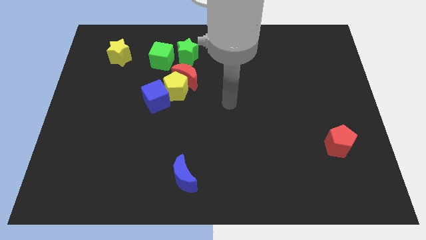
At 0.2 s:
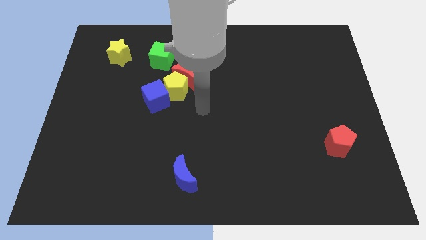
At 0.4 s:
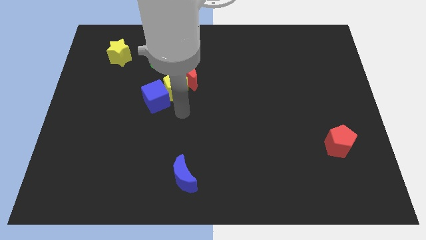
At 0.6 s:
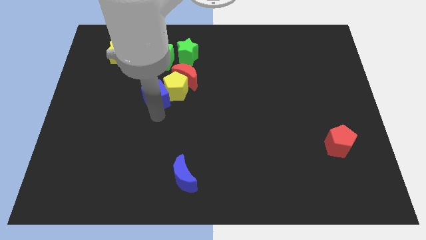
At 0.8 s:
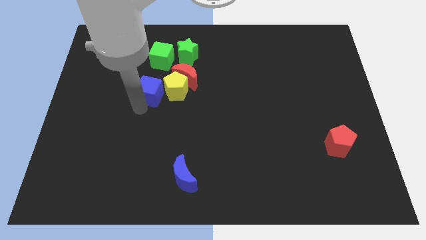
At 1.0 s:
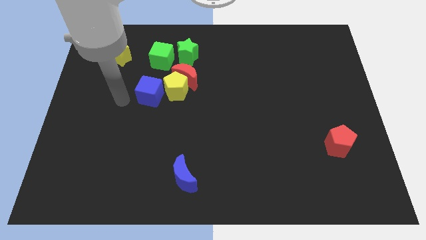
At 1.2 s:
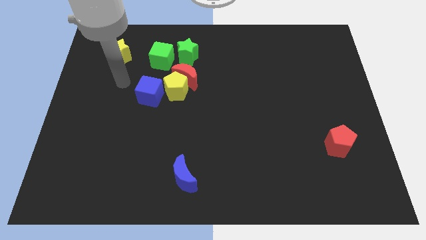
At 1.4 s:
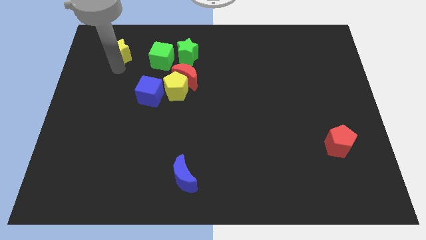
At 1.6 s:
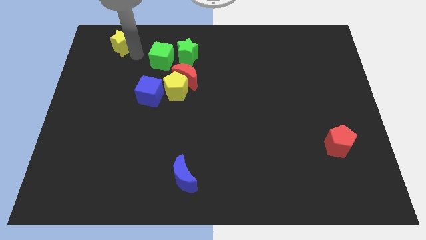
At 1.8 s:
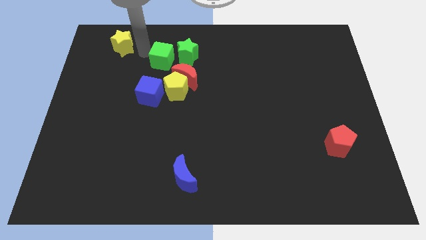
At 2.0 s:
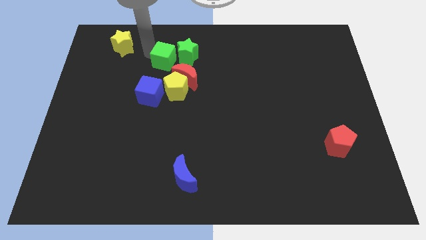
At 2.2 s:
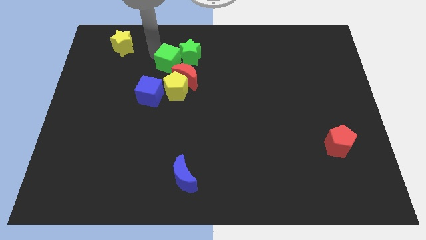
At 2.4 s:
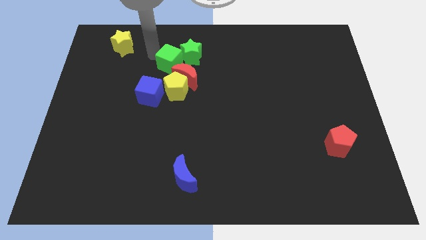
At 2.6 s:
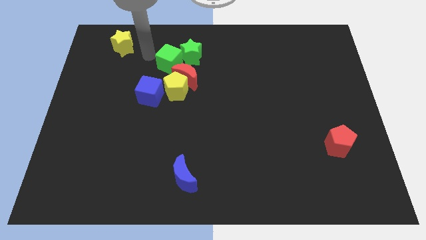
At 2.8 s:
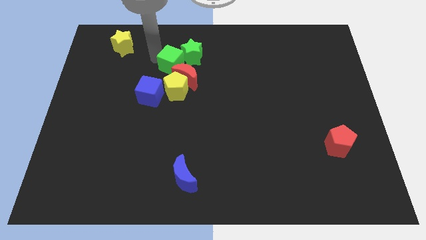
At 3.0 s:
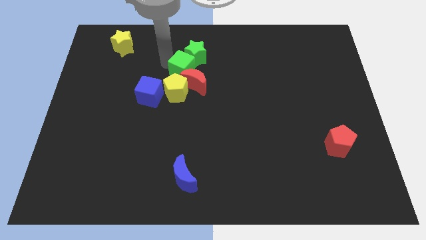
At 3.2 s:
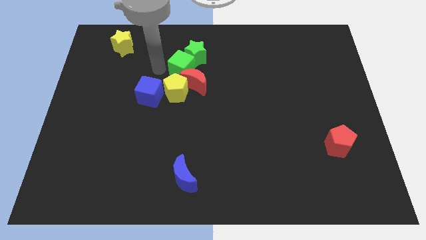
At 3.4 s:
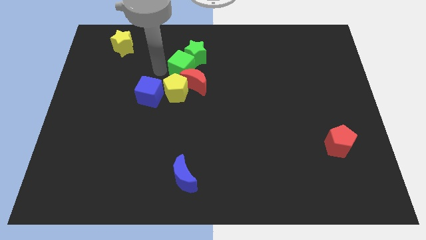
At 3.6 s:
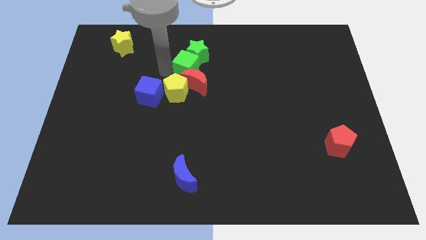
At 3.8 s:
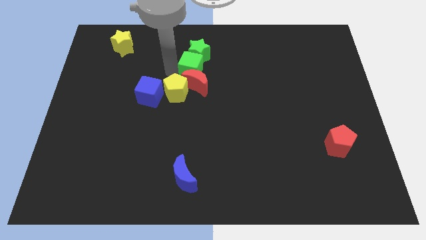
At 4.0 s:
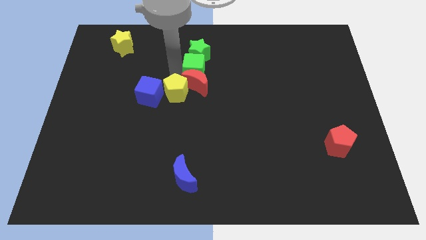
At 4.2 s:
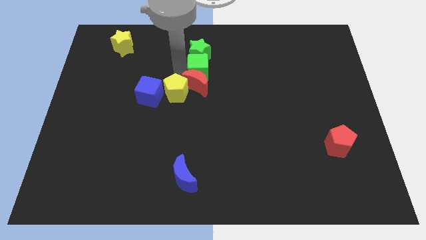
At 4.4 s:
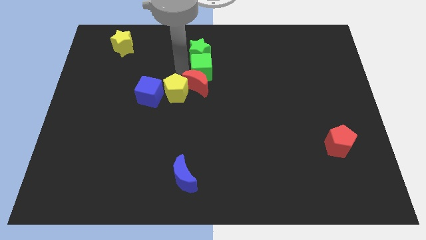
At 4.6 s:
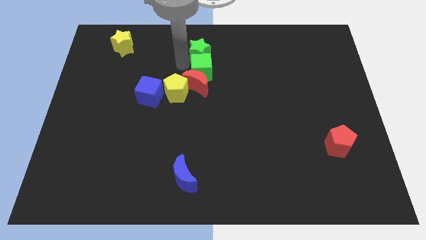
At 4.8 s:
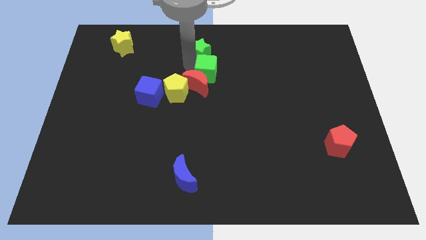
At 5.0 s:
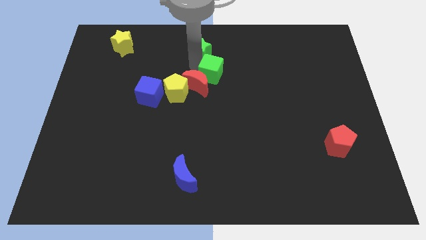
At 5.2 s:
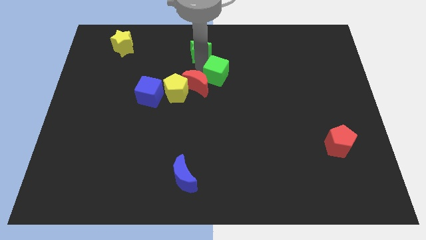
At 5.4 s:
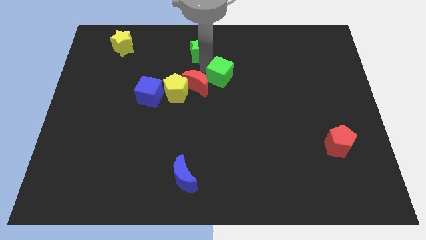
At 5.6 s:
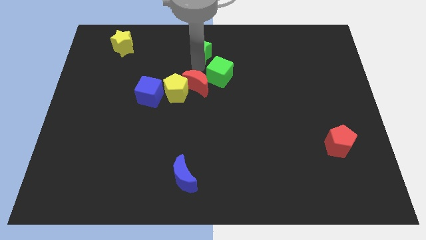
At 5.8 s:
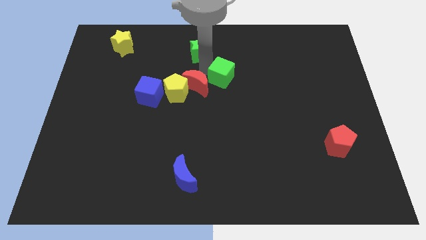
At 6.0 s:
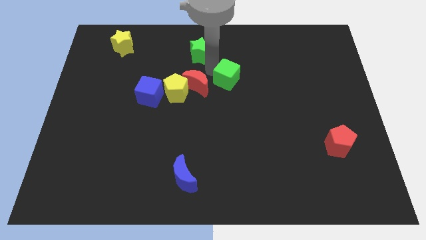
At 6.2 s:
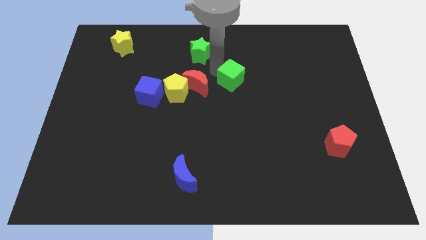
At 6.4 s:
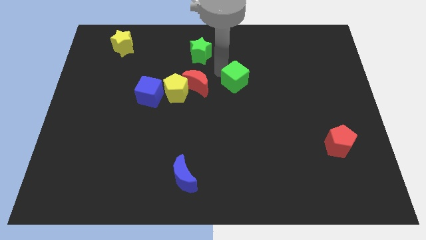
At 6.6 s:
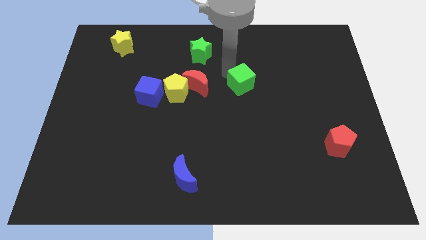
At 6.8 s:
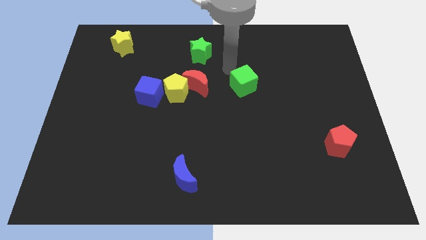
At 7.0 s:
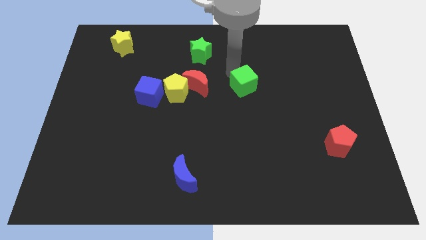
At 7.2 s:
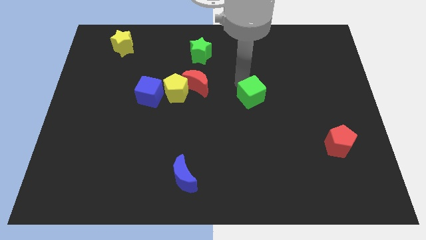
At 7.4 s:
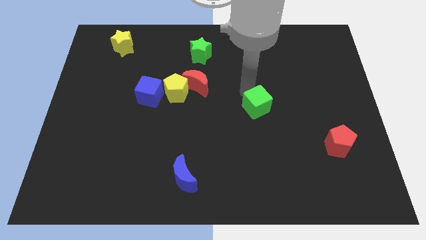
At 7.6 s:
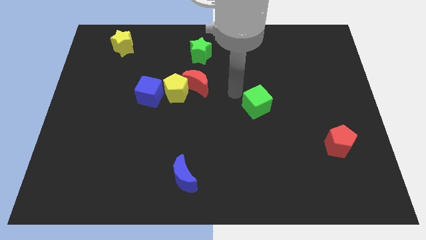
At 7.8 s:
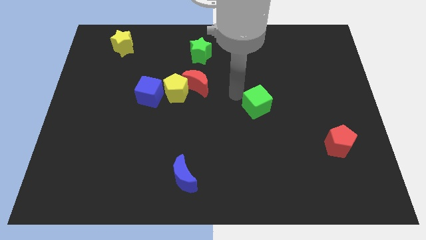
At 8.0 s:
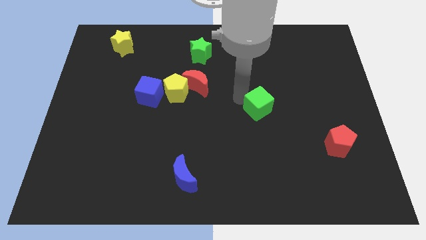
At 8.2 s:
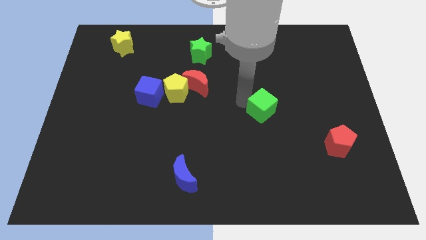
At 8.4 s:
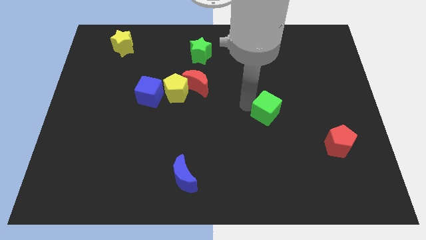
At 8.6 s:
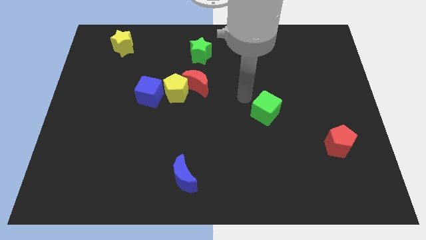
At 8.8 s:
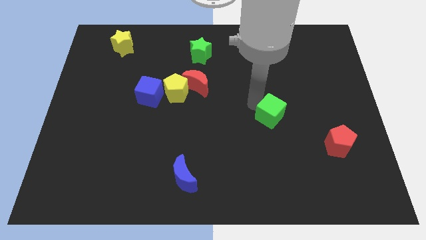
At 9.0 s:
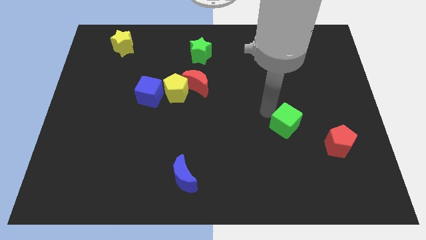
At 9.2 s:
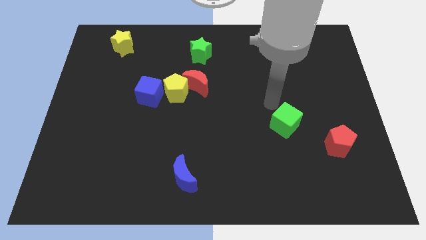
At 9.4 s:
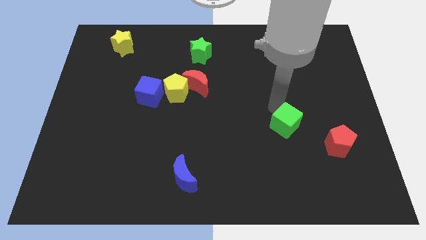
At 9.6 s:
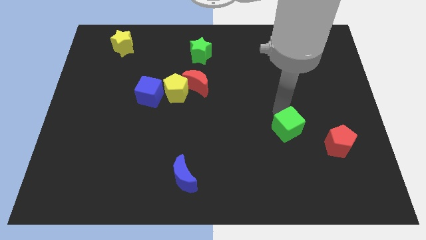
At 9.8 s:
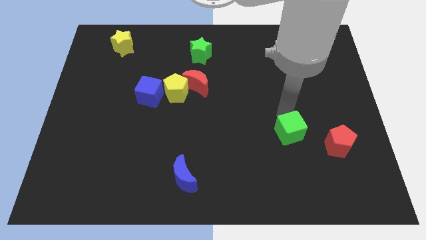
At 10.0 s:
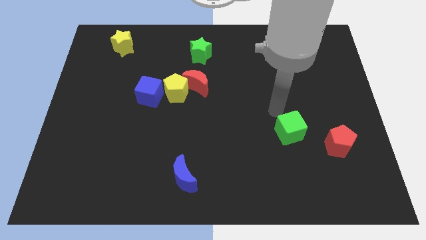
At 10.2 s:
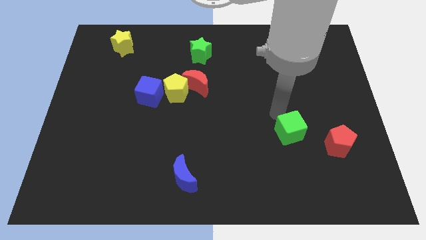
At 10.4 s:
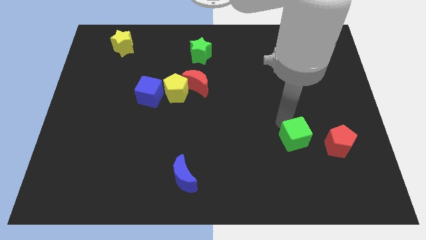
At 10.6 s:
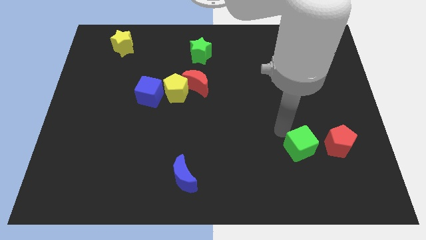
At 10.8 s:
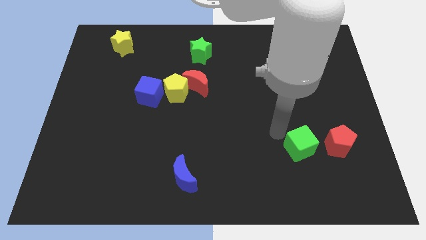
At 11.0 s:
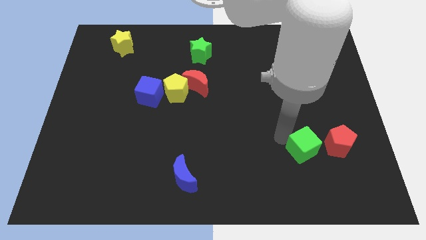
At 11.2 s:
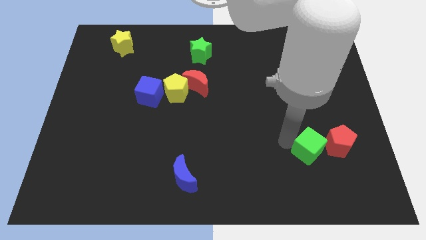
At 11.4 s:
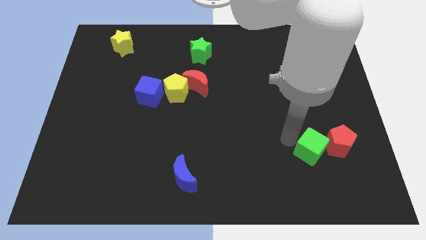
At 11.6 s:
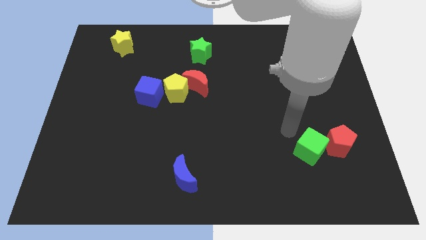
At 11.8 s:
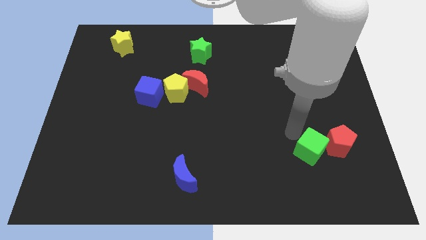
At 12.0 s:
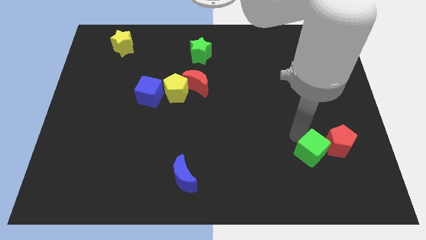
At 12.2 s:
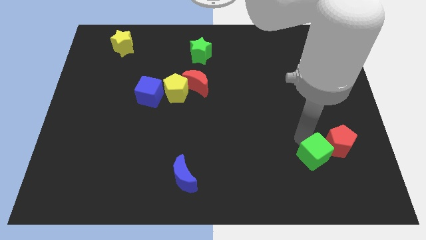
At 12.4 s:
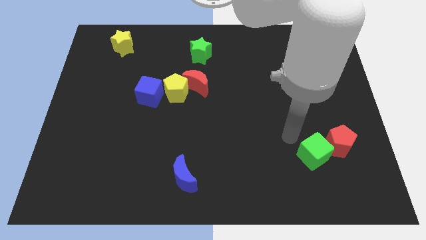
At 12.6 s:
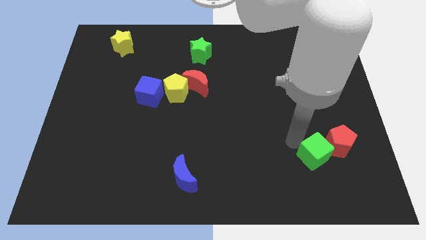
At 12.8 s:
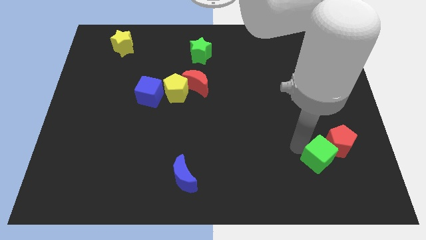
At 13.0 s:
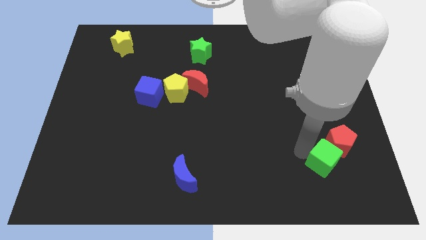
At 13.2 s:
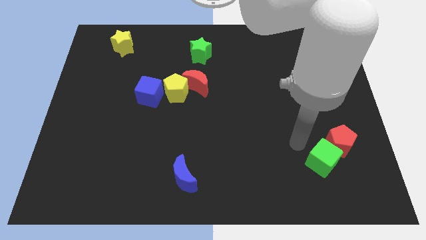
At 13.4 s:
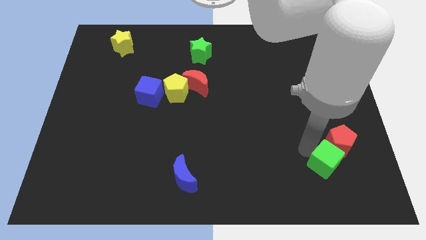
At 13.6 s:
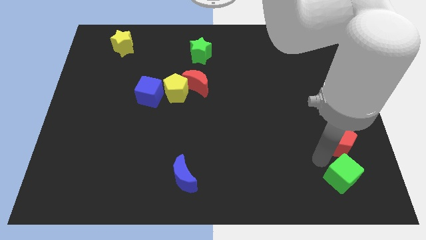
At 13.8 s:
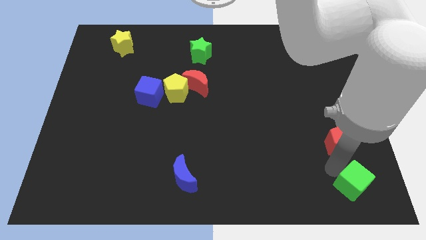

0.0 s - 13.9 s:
put the green cube to the bottom right of the board
